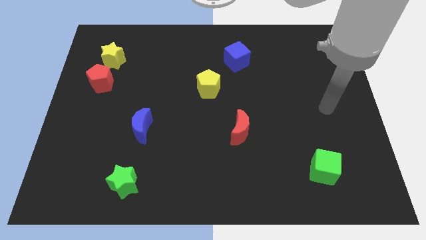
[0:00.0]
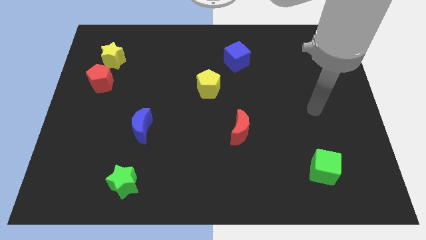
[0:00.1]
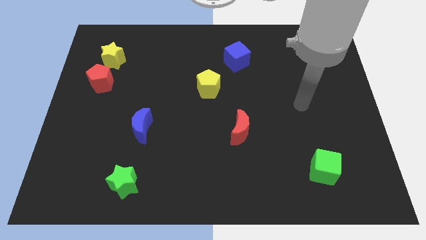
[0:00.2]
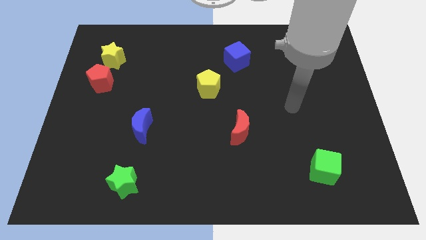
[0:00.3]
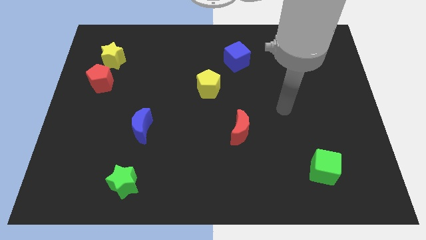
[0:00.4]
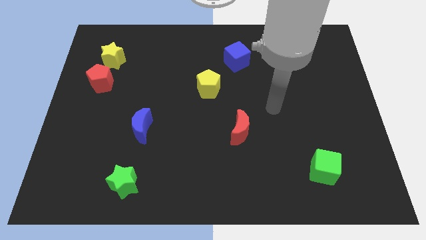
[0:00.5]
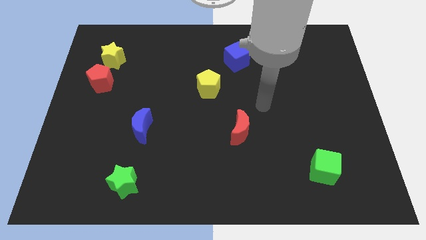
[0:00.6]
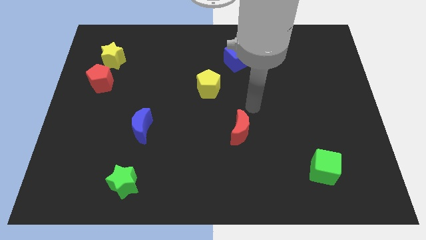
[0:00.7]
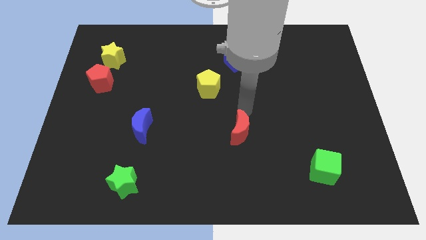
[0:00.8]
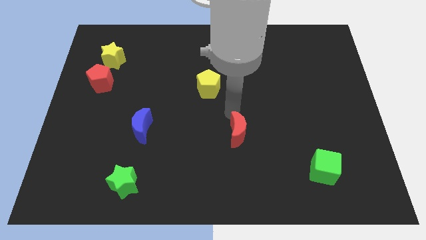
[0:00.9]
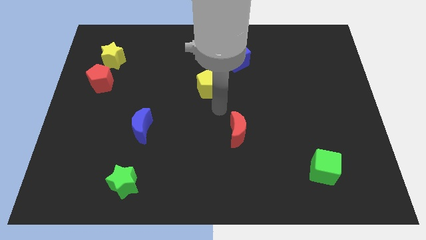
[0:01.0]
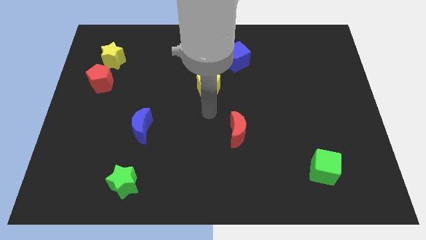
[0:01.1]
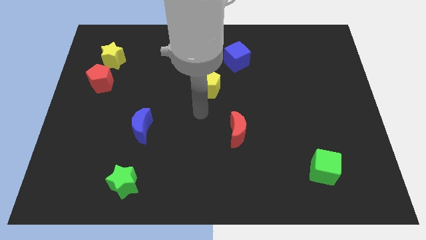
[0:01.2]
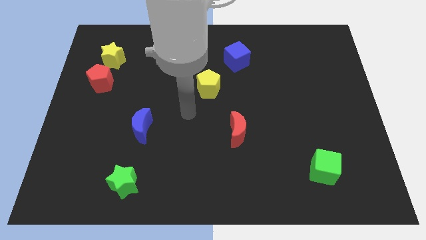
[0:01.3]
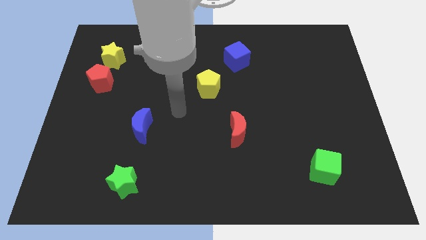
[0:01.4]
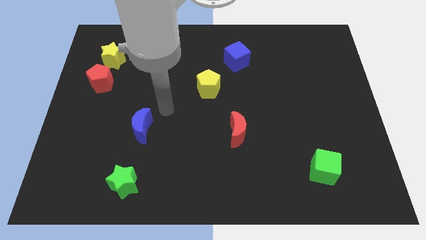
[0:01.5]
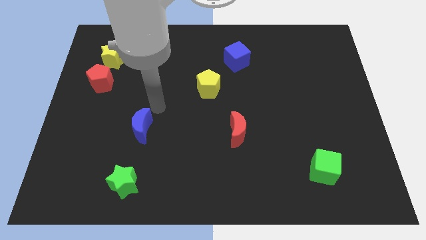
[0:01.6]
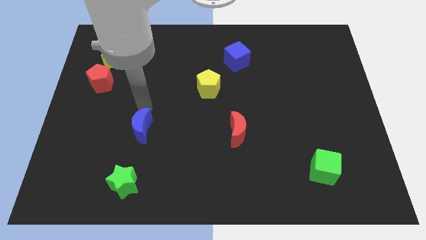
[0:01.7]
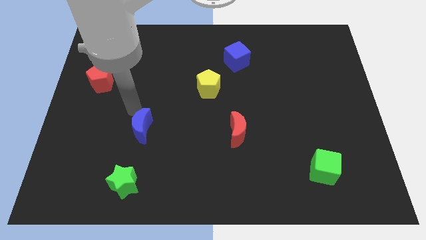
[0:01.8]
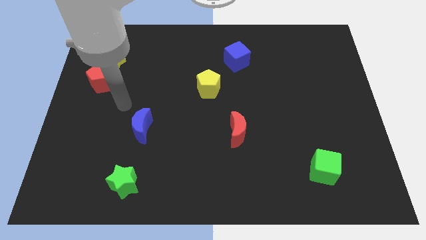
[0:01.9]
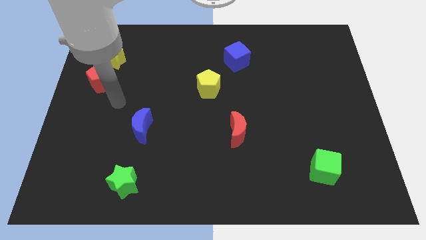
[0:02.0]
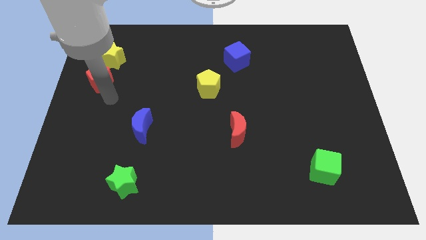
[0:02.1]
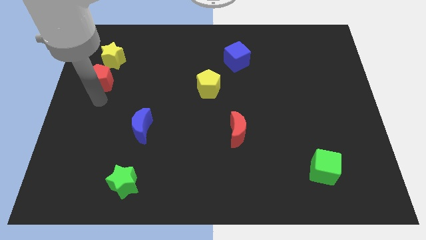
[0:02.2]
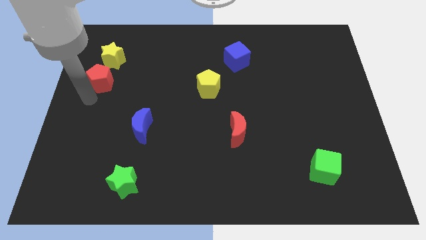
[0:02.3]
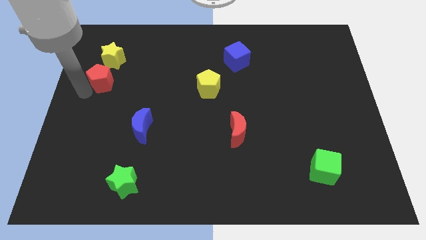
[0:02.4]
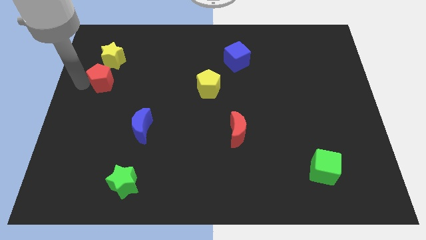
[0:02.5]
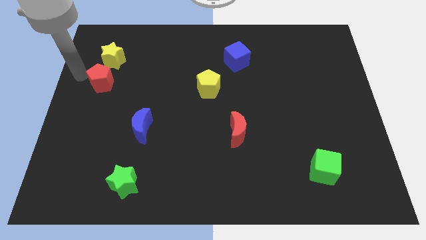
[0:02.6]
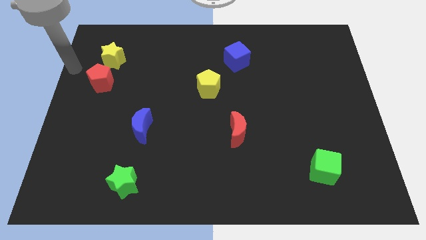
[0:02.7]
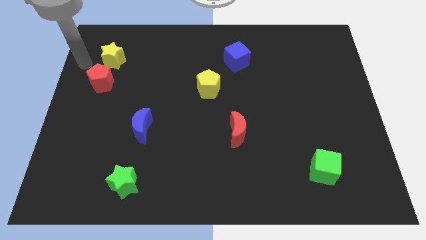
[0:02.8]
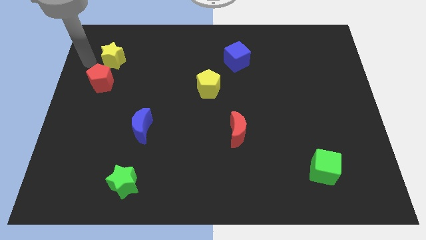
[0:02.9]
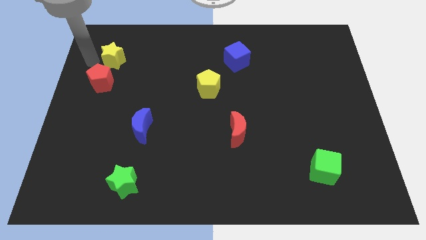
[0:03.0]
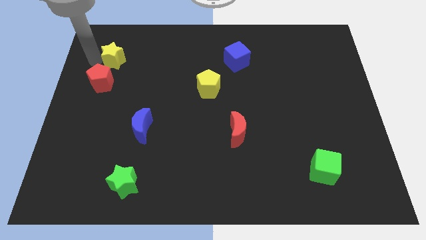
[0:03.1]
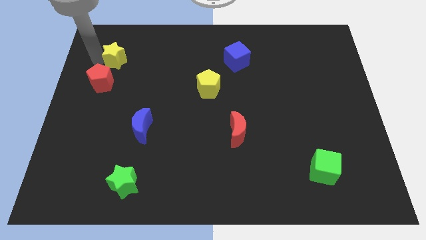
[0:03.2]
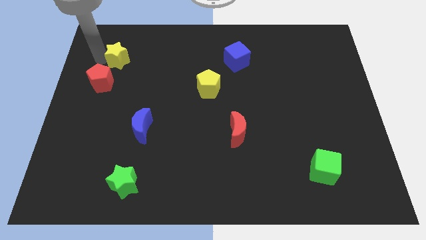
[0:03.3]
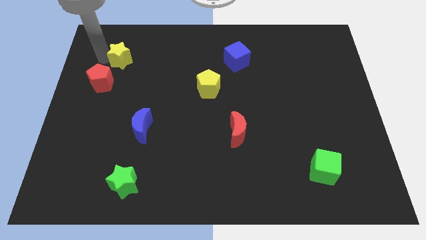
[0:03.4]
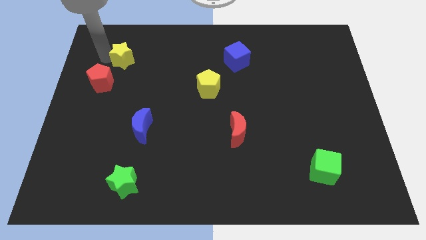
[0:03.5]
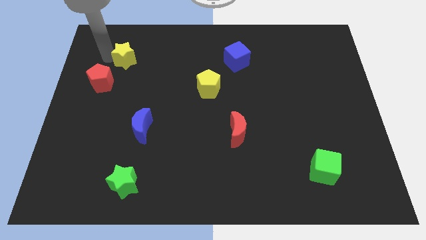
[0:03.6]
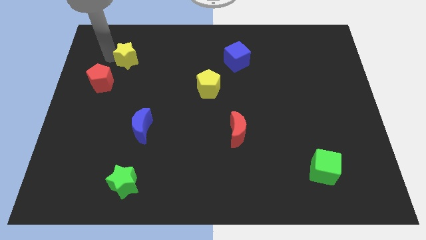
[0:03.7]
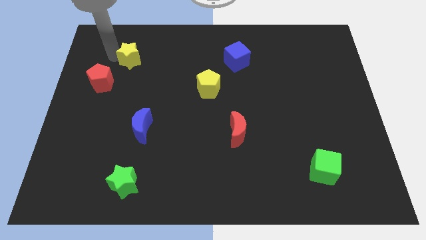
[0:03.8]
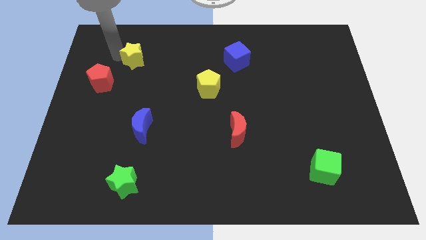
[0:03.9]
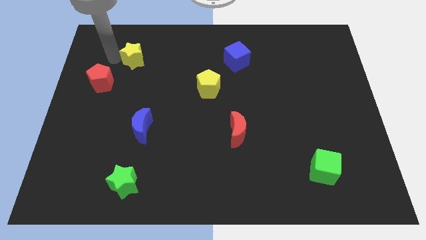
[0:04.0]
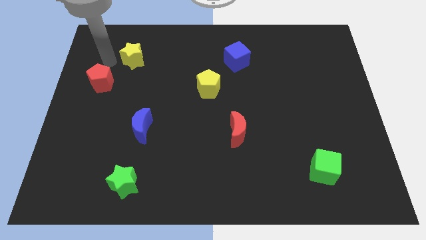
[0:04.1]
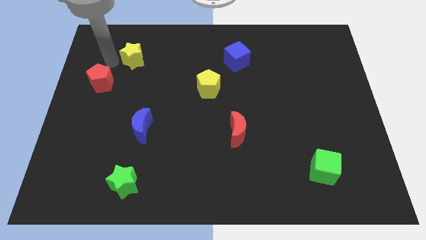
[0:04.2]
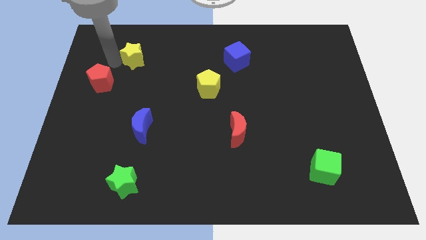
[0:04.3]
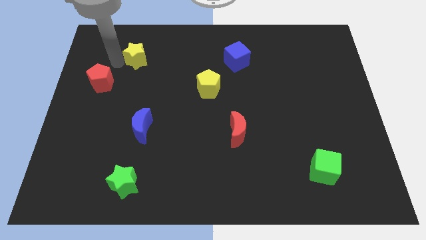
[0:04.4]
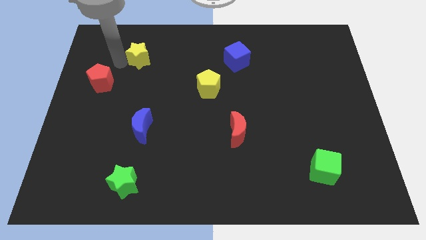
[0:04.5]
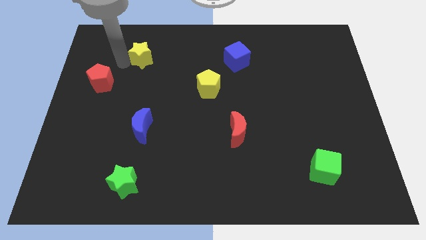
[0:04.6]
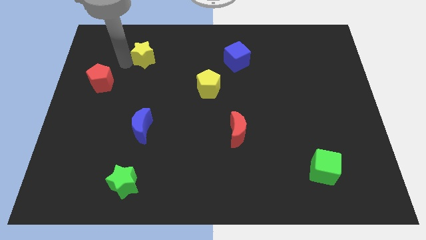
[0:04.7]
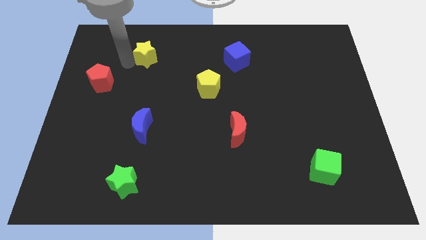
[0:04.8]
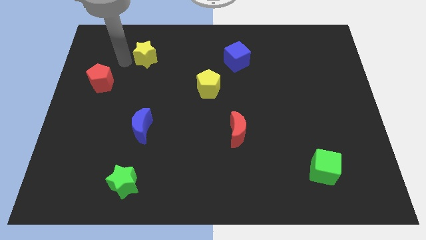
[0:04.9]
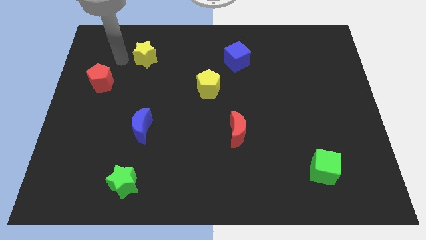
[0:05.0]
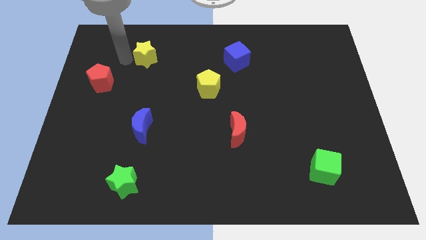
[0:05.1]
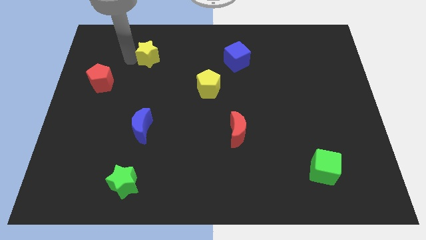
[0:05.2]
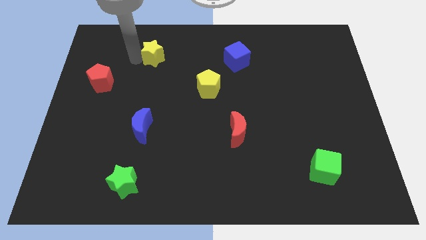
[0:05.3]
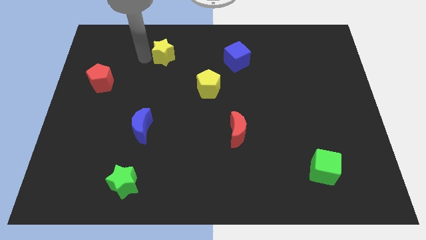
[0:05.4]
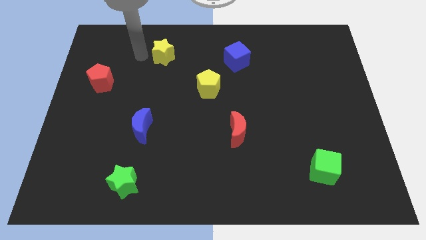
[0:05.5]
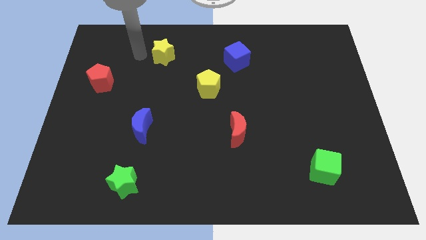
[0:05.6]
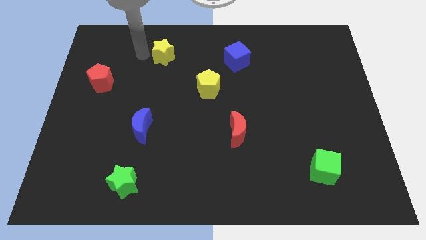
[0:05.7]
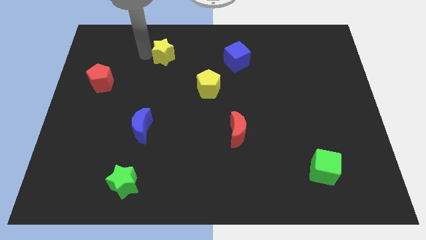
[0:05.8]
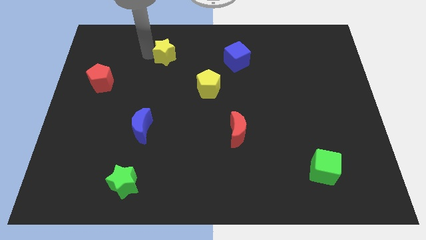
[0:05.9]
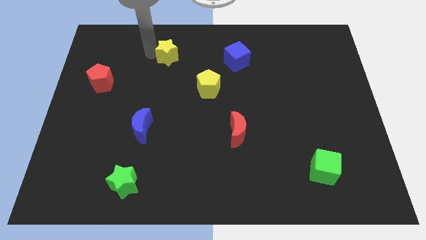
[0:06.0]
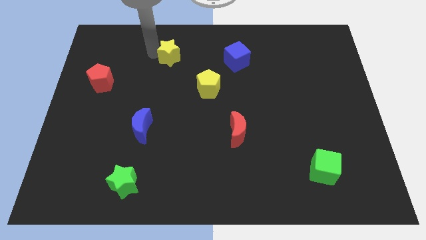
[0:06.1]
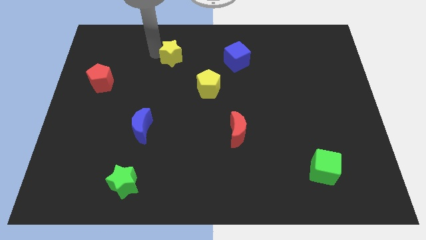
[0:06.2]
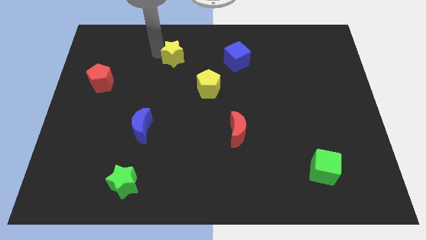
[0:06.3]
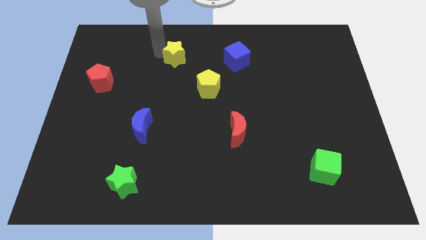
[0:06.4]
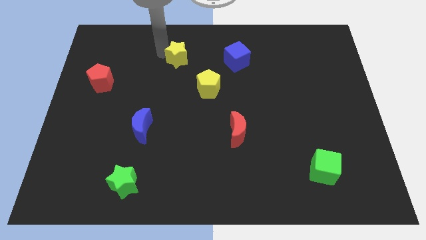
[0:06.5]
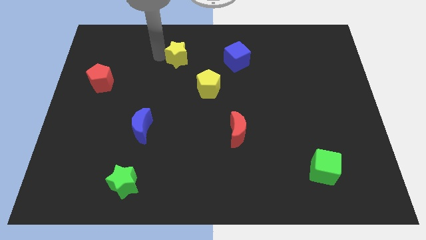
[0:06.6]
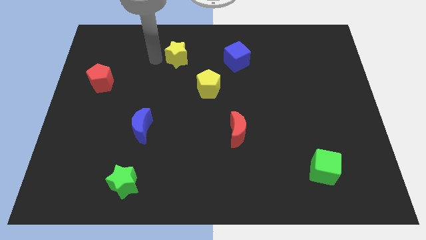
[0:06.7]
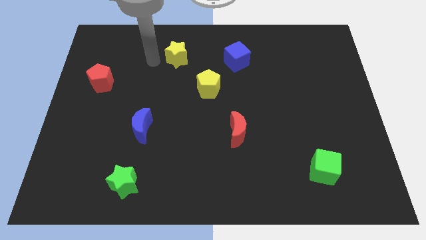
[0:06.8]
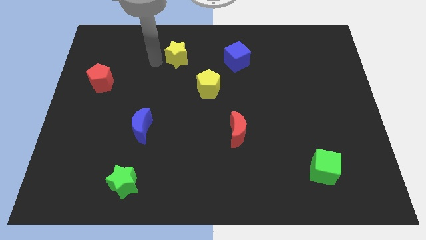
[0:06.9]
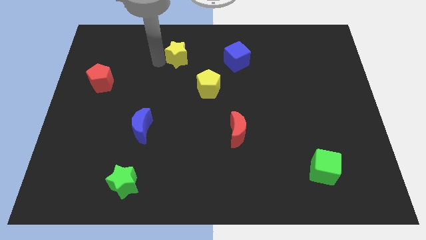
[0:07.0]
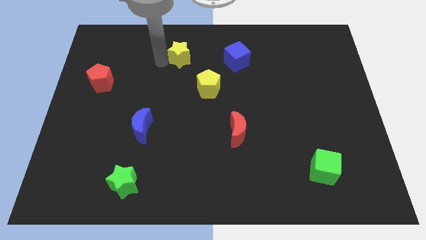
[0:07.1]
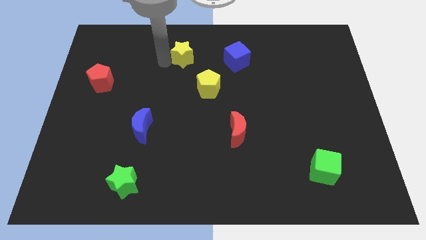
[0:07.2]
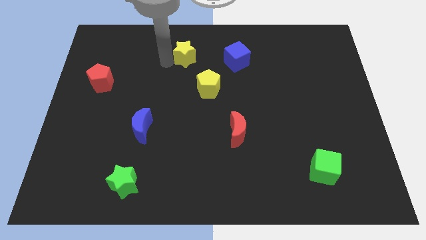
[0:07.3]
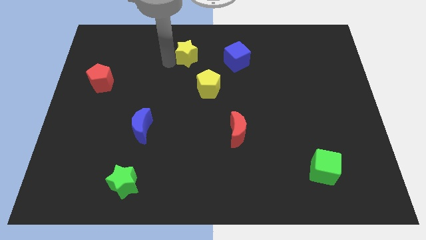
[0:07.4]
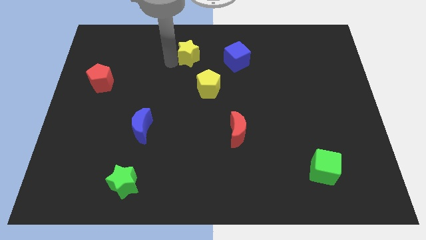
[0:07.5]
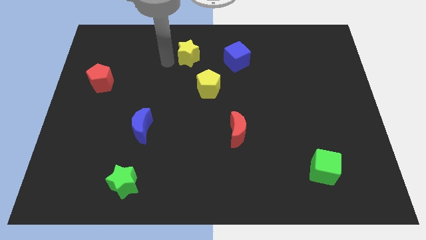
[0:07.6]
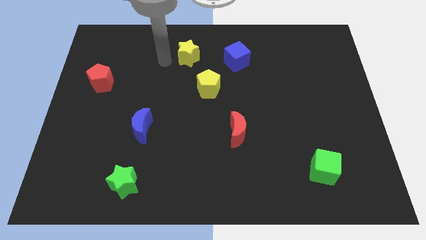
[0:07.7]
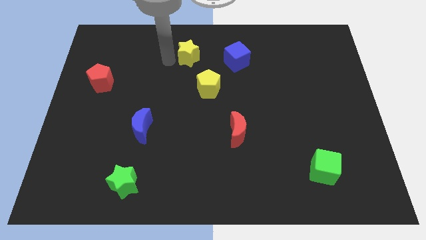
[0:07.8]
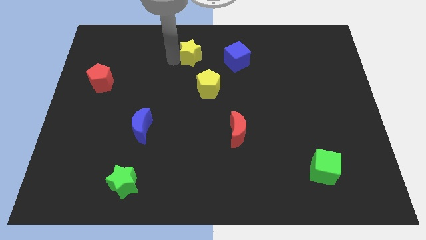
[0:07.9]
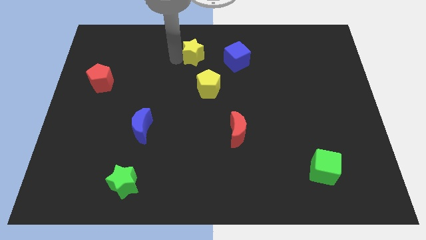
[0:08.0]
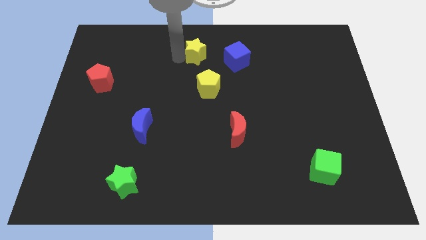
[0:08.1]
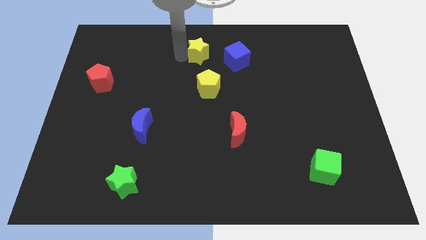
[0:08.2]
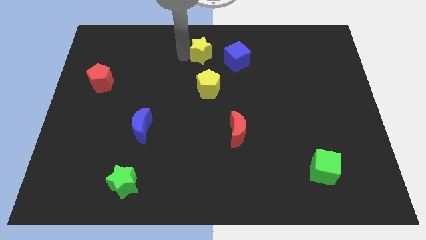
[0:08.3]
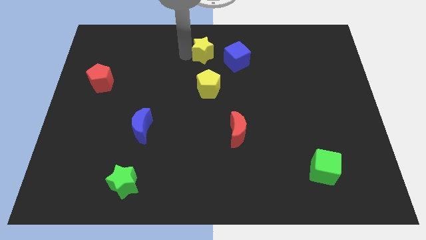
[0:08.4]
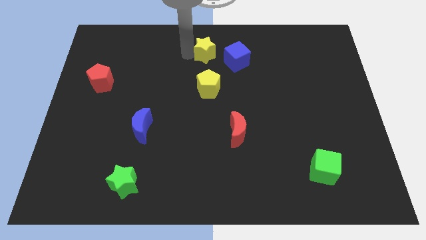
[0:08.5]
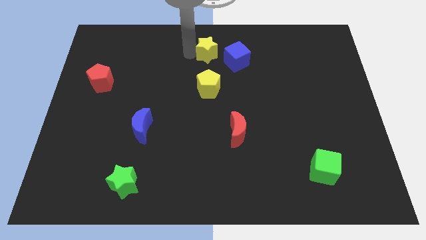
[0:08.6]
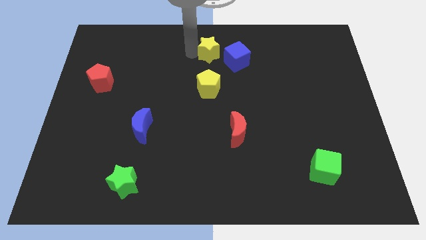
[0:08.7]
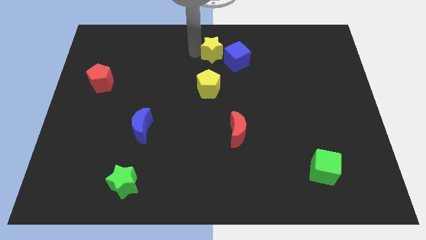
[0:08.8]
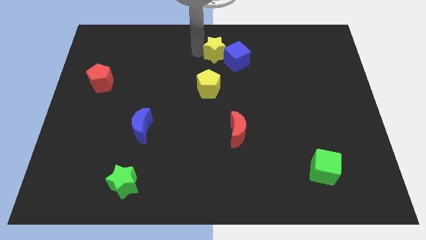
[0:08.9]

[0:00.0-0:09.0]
move the yellow star to the blue cube
